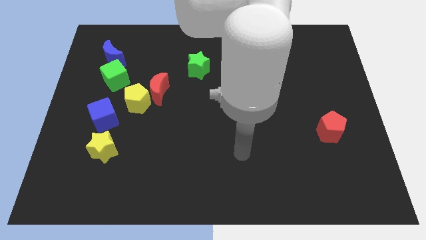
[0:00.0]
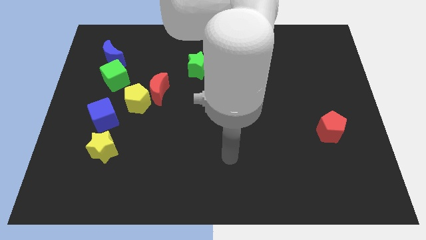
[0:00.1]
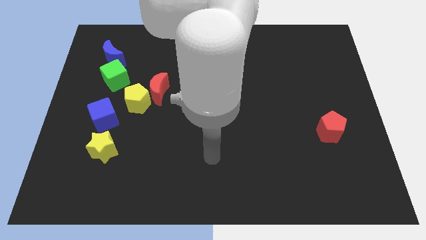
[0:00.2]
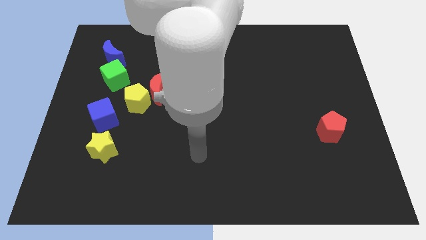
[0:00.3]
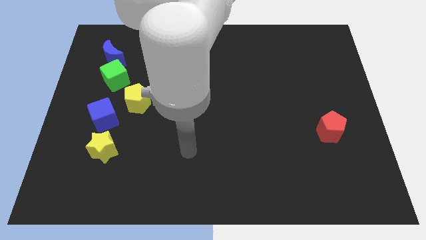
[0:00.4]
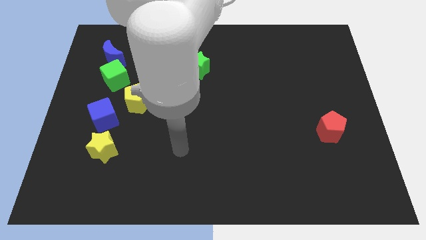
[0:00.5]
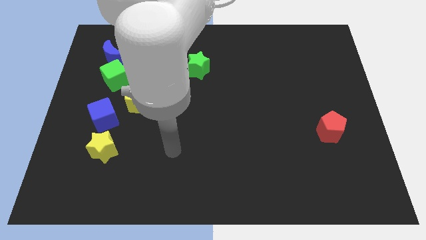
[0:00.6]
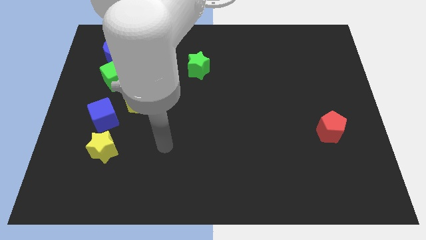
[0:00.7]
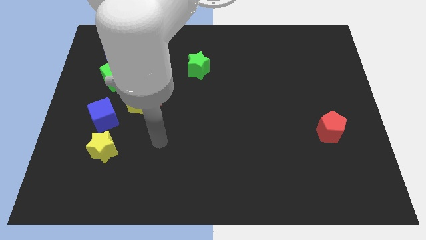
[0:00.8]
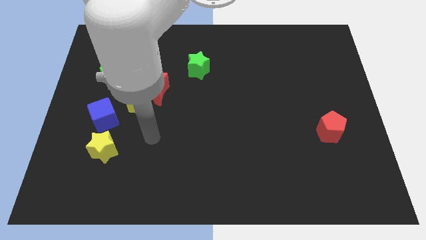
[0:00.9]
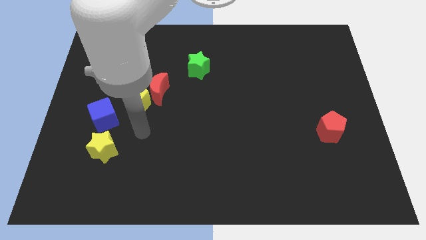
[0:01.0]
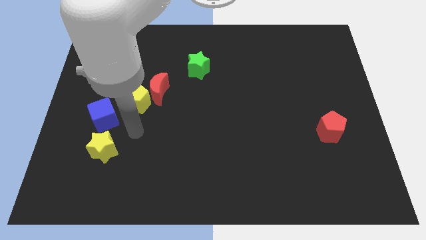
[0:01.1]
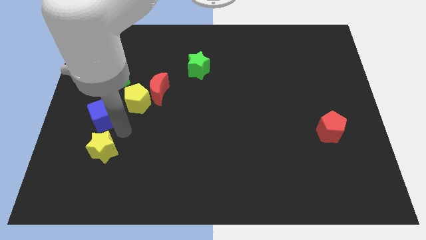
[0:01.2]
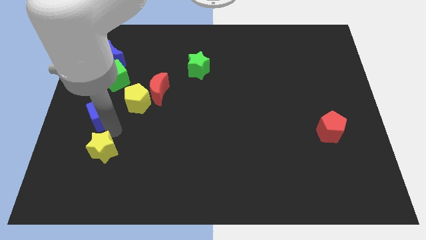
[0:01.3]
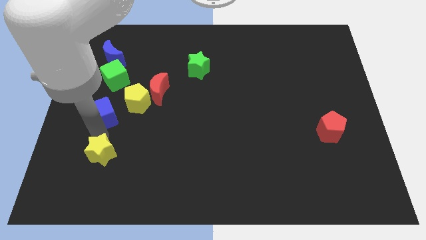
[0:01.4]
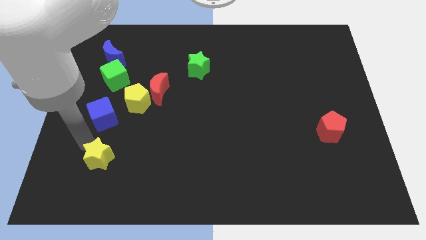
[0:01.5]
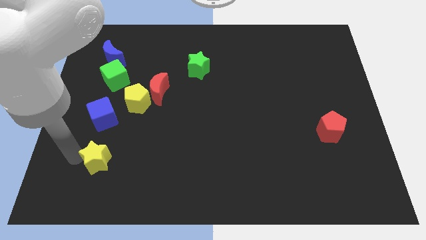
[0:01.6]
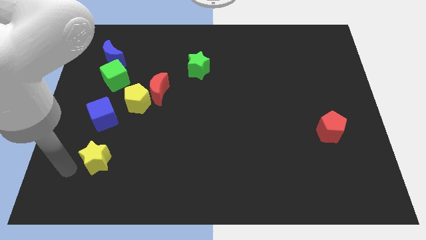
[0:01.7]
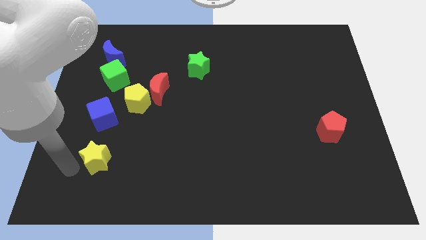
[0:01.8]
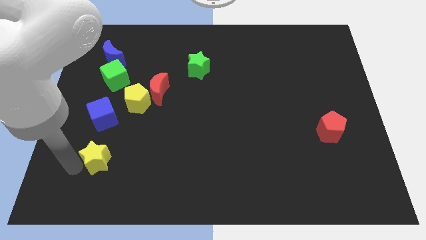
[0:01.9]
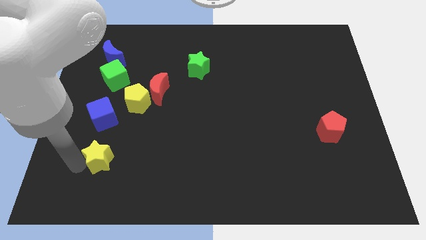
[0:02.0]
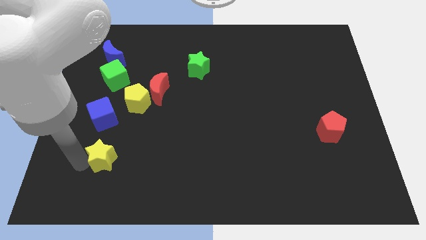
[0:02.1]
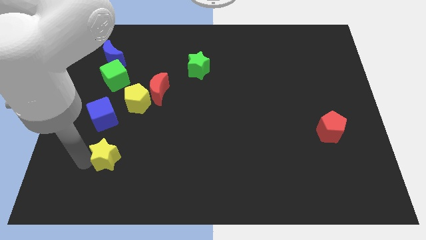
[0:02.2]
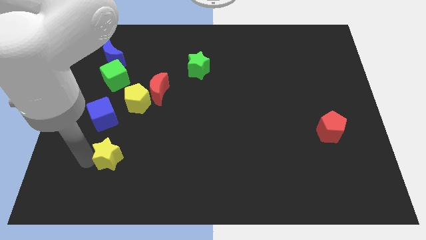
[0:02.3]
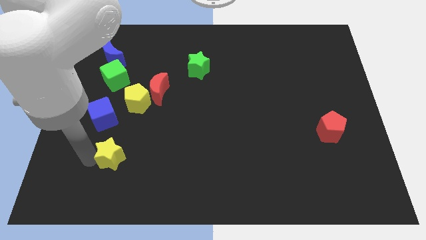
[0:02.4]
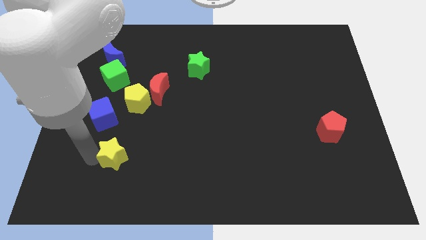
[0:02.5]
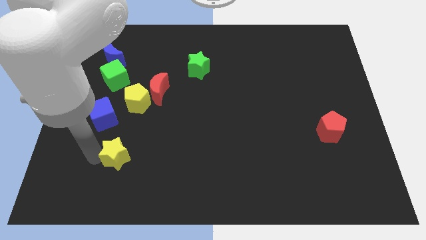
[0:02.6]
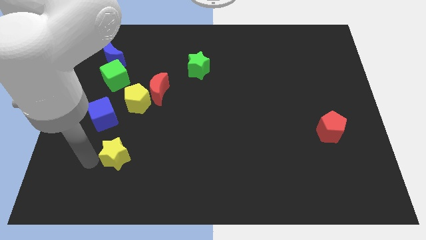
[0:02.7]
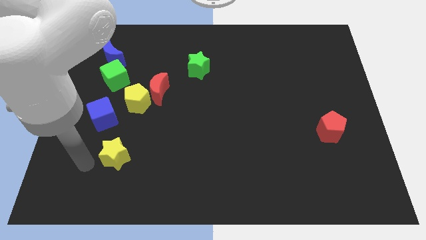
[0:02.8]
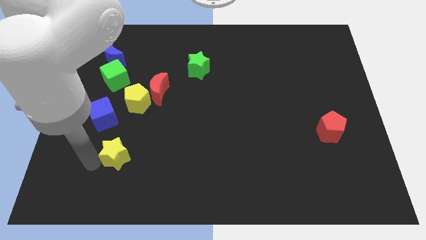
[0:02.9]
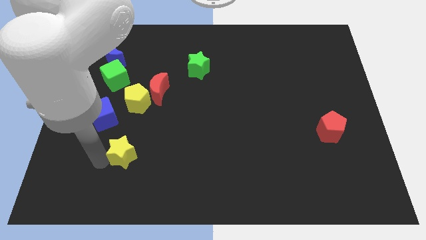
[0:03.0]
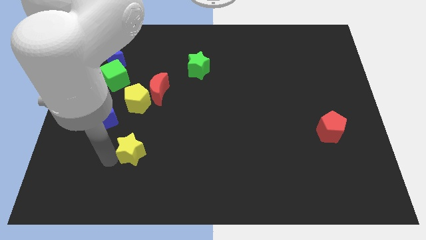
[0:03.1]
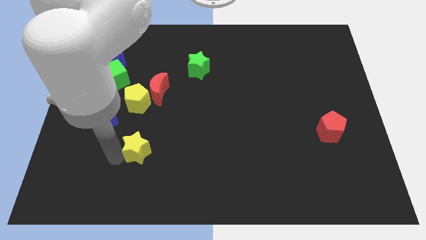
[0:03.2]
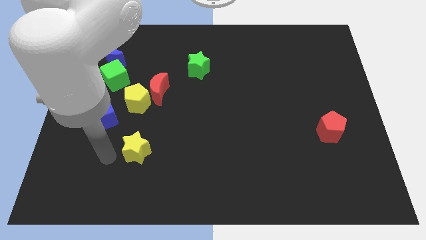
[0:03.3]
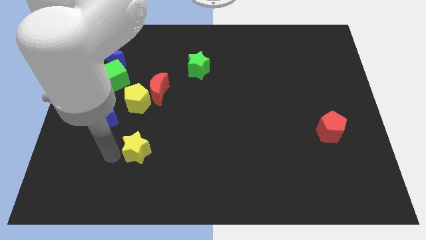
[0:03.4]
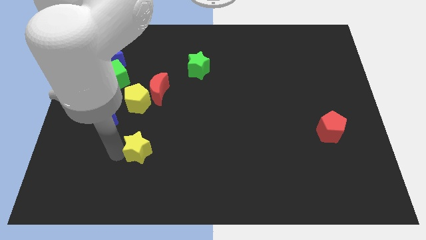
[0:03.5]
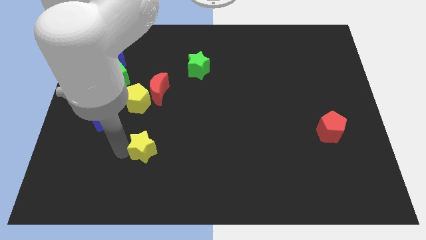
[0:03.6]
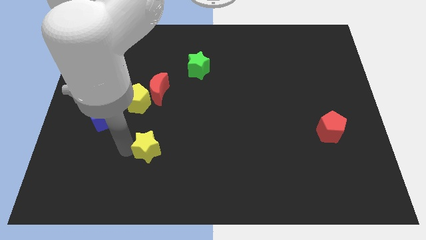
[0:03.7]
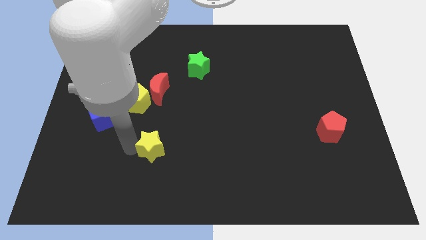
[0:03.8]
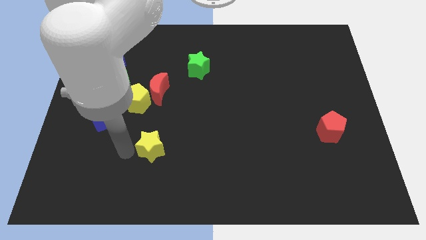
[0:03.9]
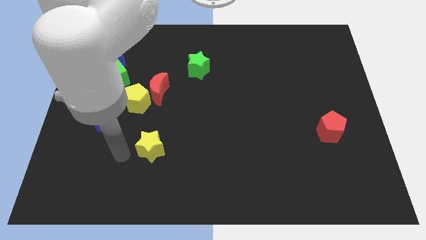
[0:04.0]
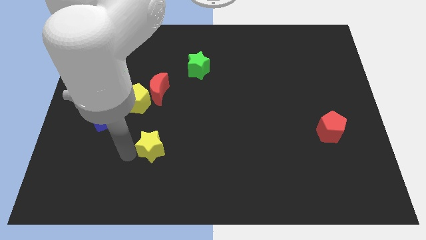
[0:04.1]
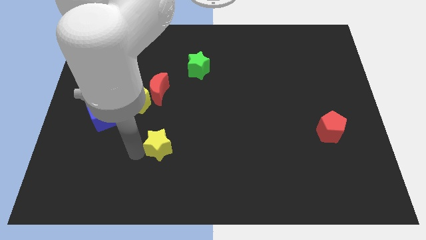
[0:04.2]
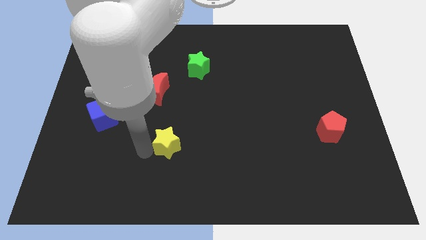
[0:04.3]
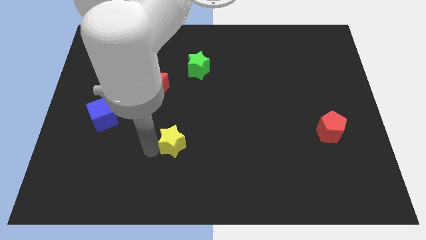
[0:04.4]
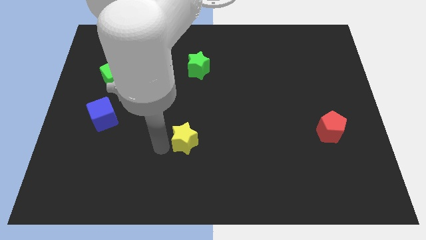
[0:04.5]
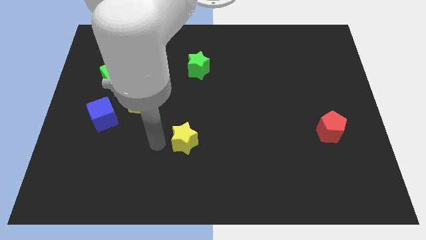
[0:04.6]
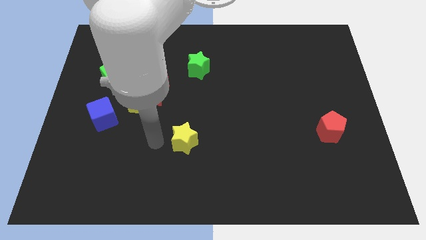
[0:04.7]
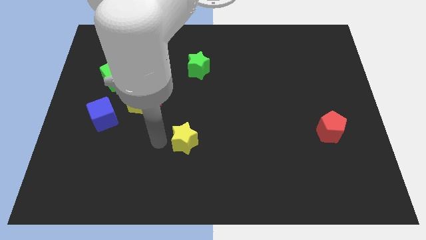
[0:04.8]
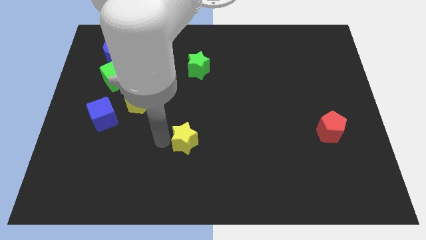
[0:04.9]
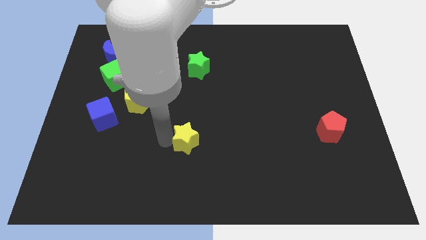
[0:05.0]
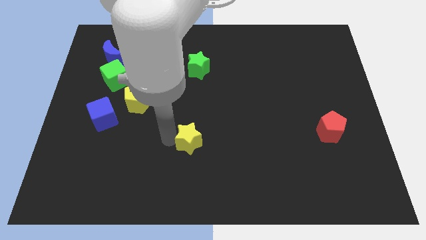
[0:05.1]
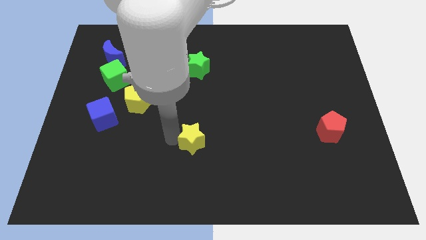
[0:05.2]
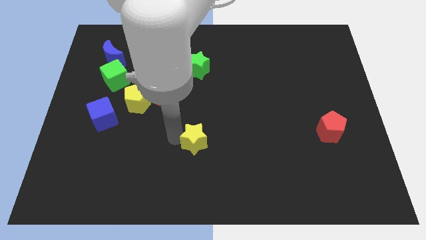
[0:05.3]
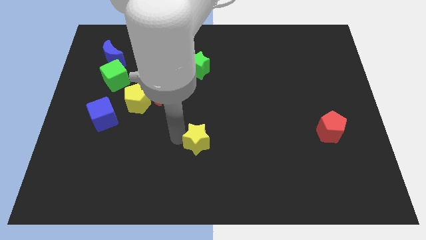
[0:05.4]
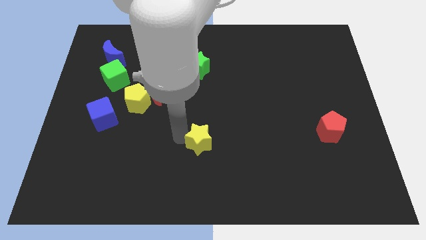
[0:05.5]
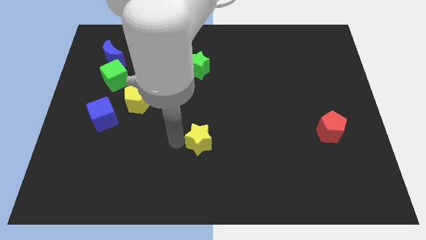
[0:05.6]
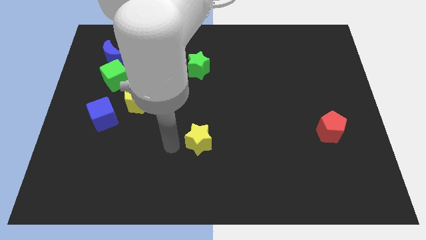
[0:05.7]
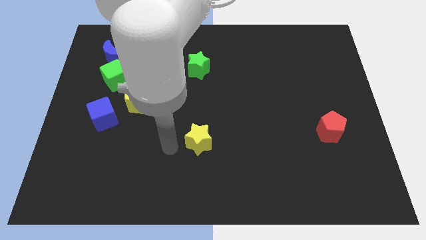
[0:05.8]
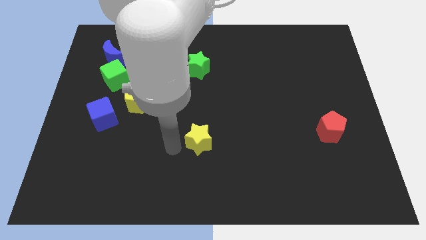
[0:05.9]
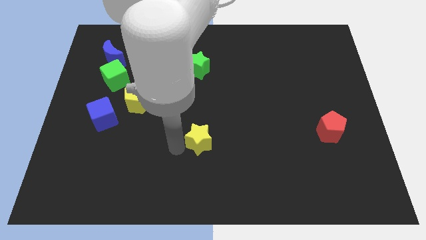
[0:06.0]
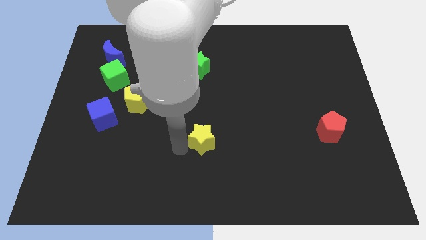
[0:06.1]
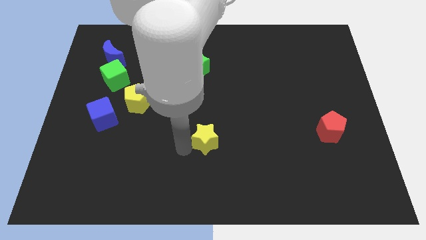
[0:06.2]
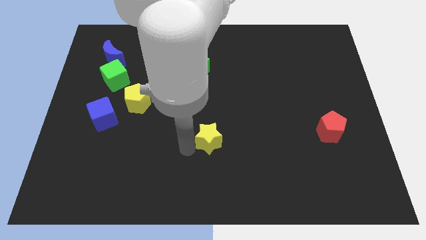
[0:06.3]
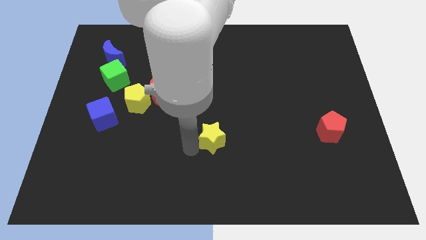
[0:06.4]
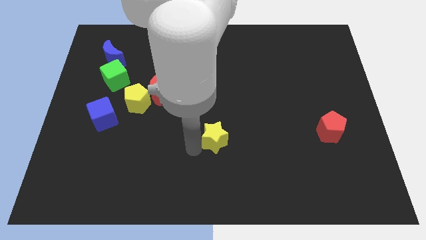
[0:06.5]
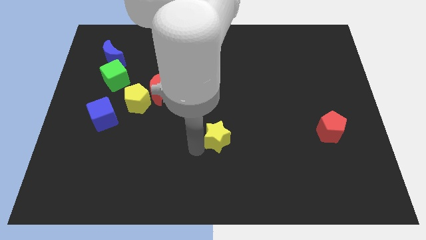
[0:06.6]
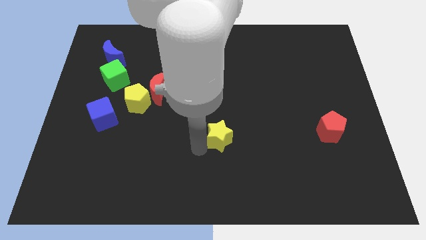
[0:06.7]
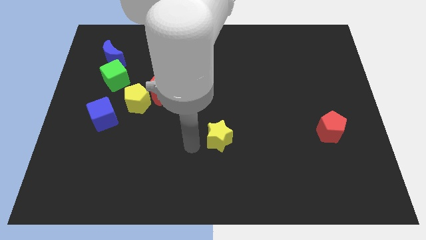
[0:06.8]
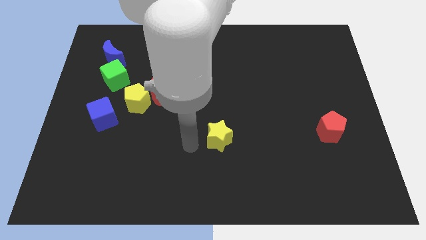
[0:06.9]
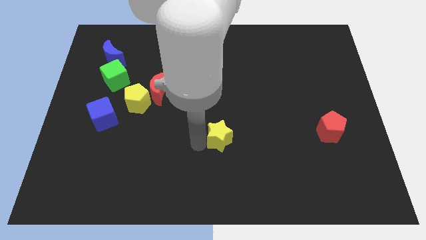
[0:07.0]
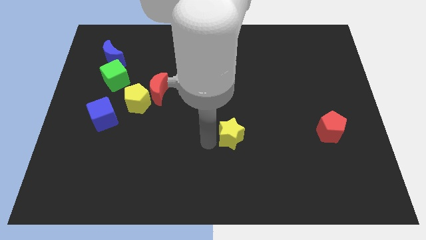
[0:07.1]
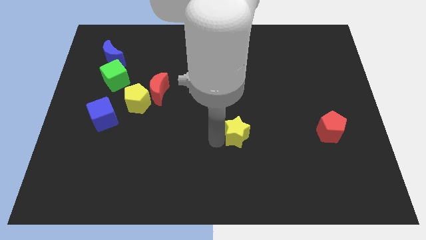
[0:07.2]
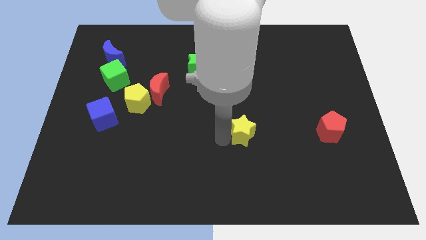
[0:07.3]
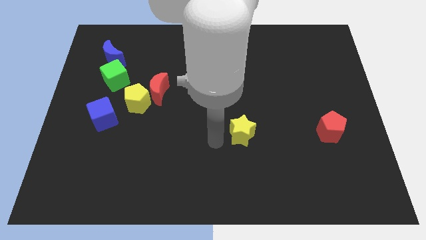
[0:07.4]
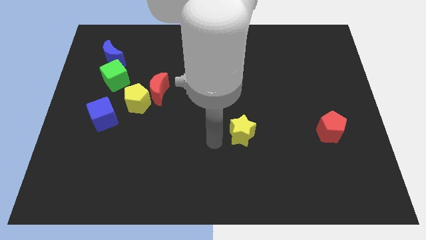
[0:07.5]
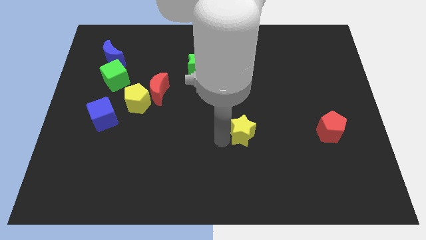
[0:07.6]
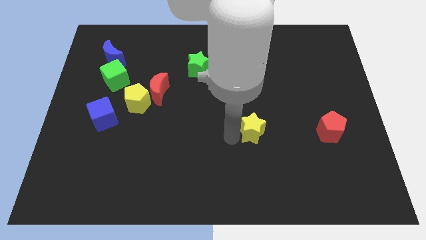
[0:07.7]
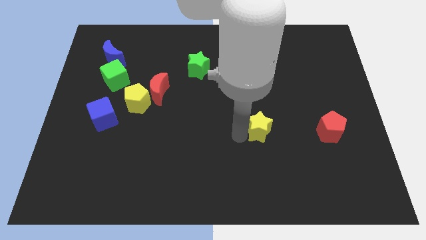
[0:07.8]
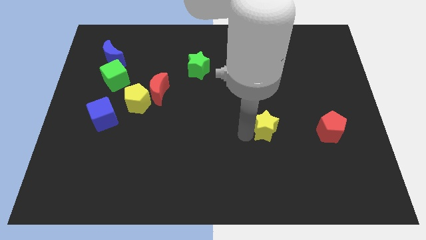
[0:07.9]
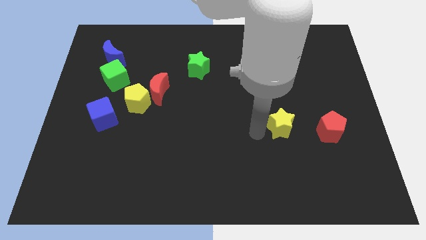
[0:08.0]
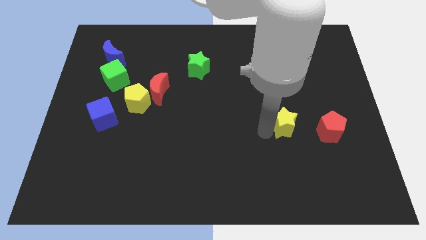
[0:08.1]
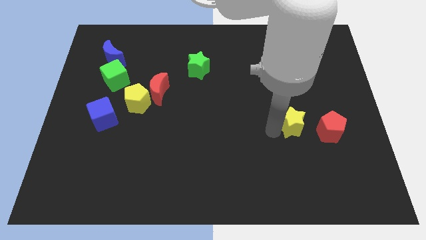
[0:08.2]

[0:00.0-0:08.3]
push the yellow star to the top left side of the red pentagon
